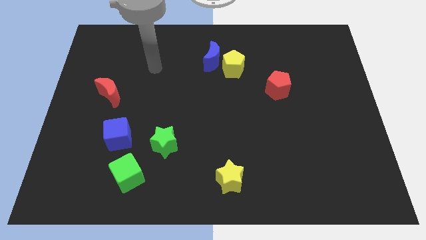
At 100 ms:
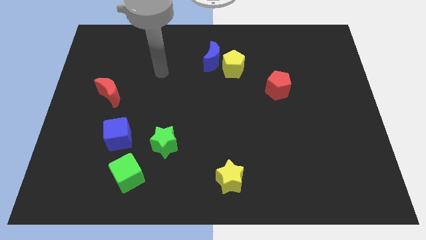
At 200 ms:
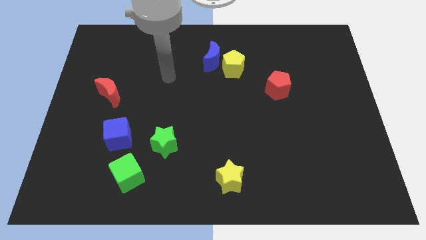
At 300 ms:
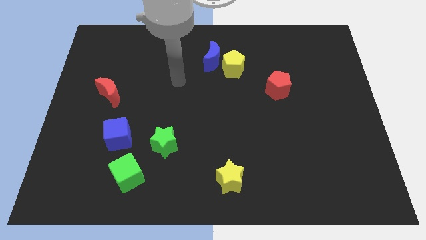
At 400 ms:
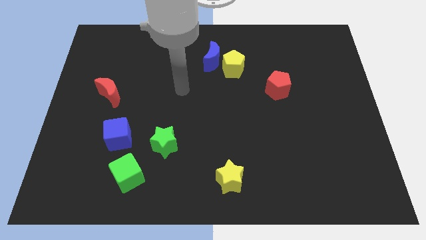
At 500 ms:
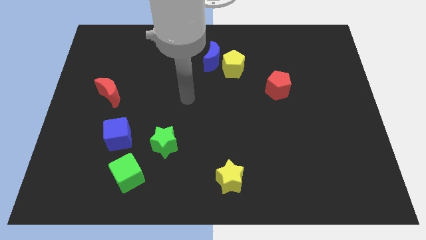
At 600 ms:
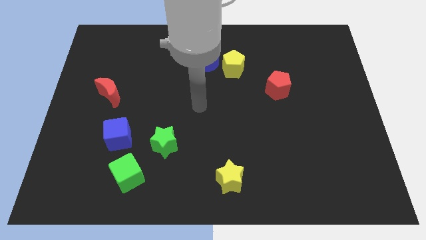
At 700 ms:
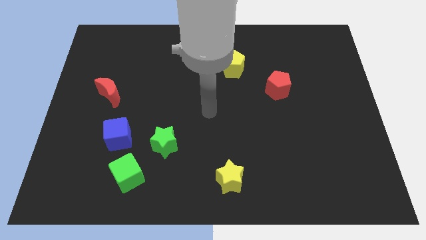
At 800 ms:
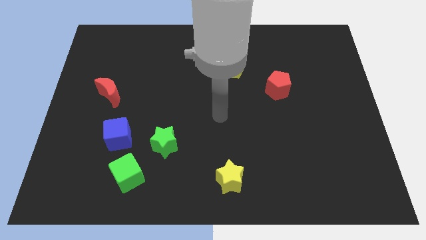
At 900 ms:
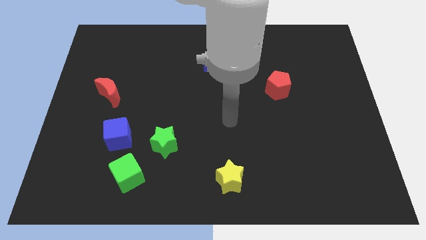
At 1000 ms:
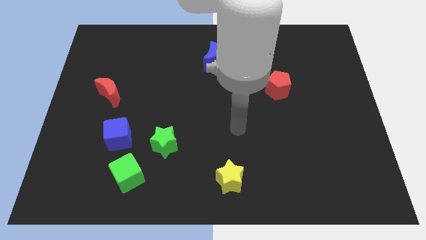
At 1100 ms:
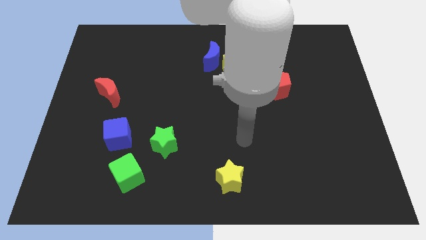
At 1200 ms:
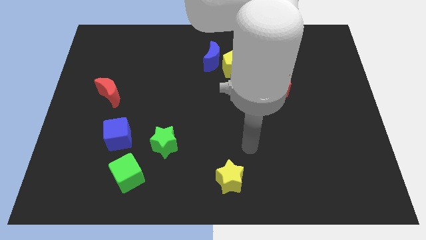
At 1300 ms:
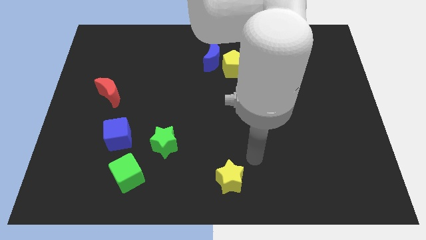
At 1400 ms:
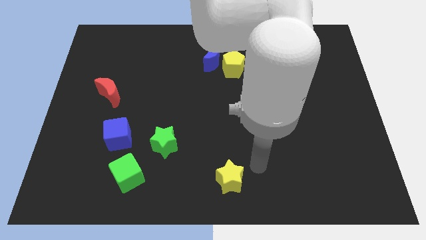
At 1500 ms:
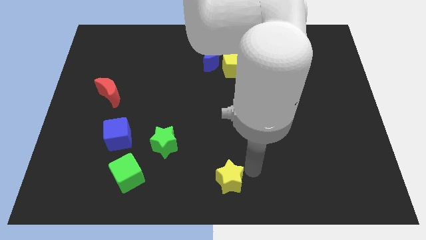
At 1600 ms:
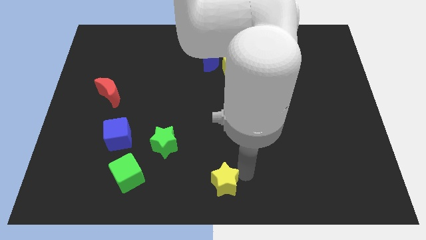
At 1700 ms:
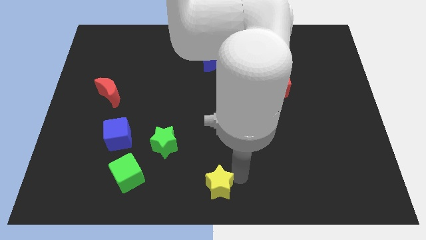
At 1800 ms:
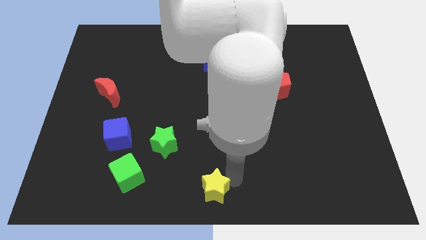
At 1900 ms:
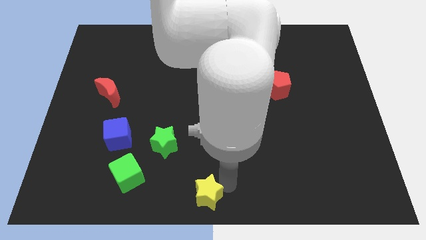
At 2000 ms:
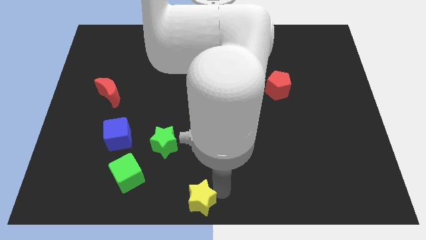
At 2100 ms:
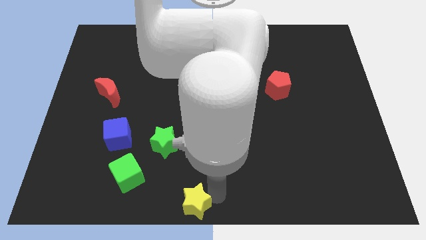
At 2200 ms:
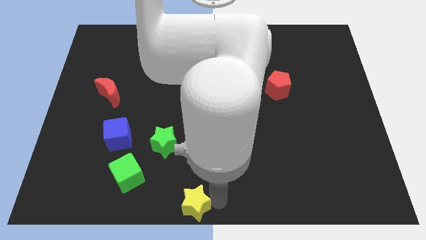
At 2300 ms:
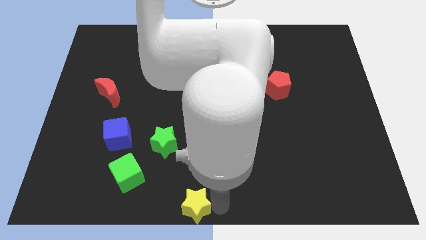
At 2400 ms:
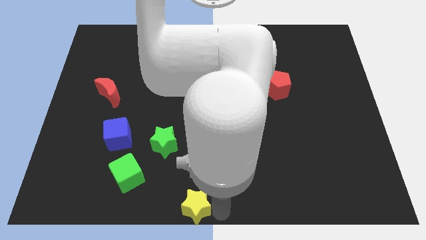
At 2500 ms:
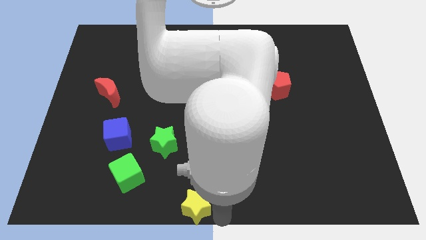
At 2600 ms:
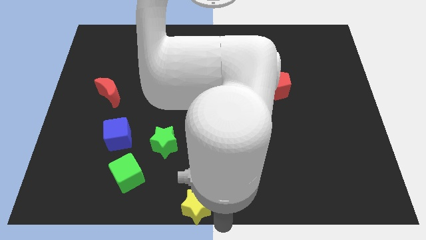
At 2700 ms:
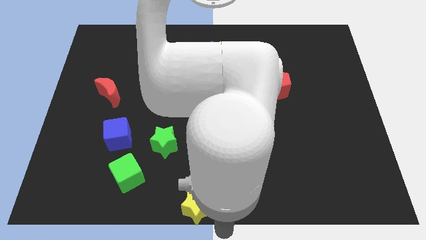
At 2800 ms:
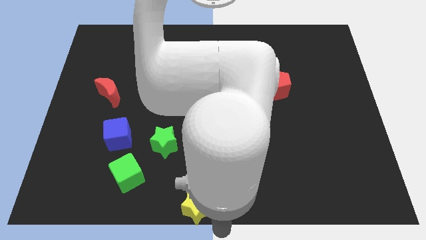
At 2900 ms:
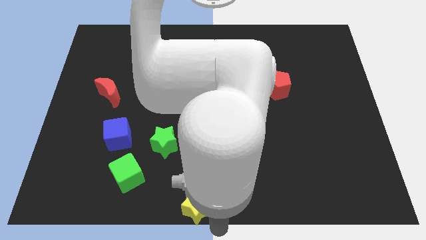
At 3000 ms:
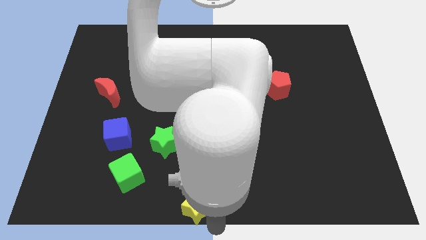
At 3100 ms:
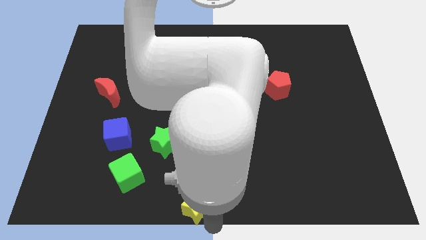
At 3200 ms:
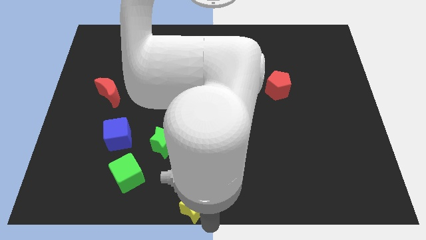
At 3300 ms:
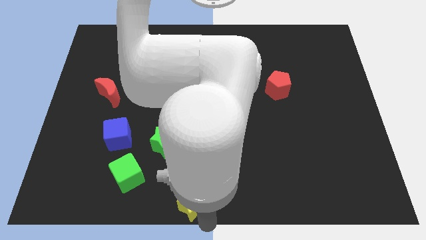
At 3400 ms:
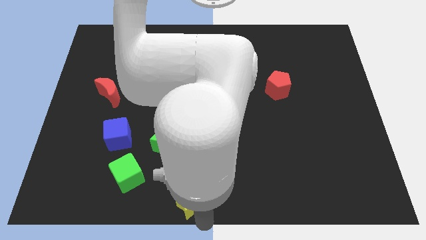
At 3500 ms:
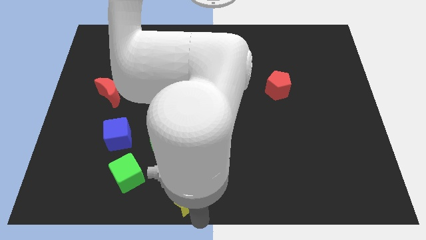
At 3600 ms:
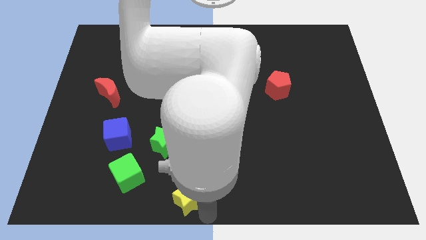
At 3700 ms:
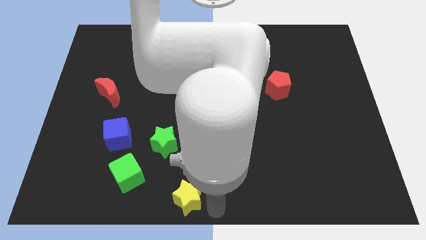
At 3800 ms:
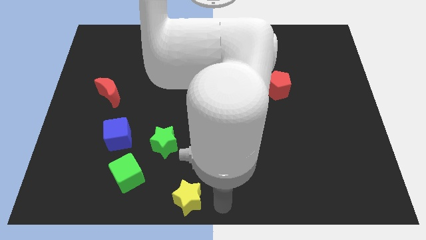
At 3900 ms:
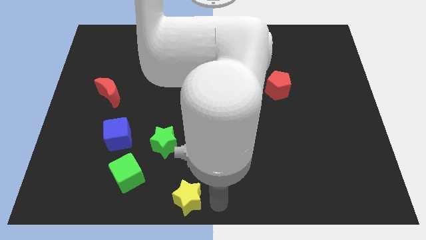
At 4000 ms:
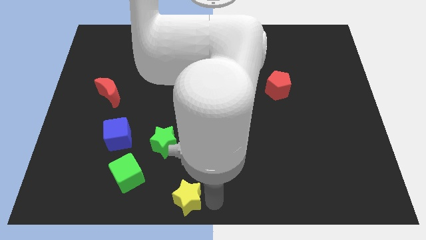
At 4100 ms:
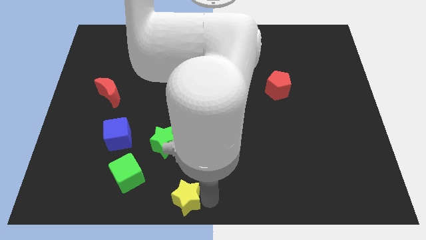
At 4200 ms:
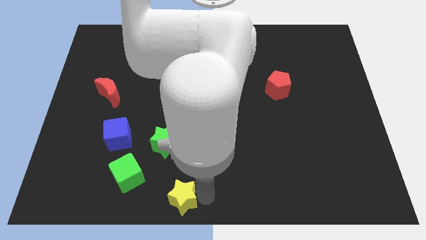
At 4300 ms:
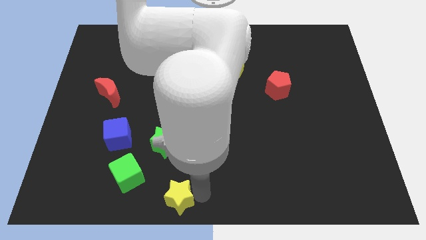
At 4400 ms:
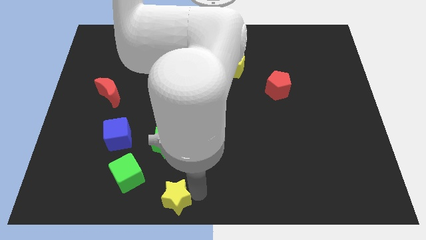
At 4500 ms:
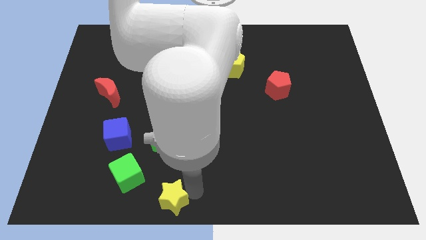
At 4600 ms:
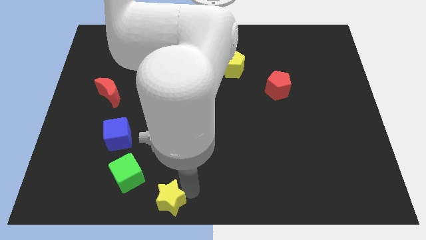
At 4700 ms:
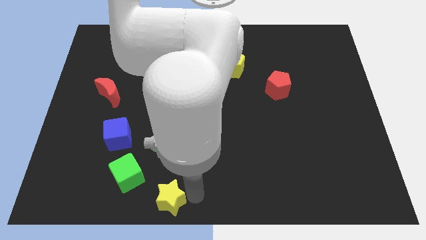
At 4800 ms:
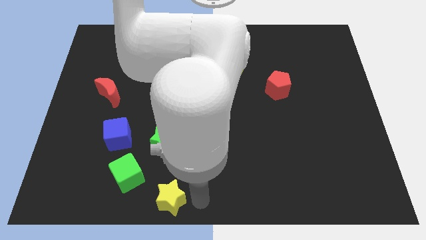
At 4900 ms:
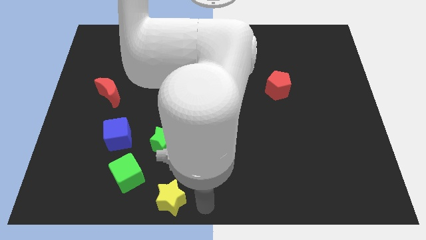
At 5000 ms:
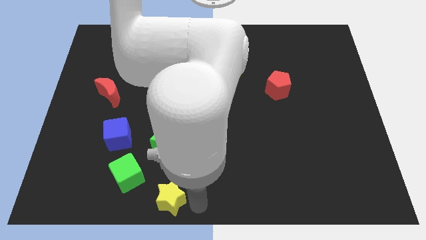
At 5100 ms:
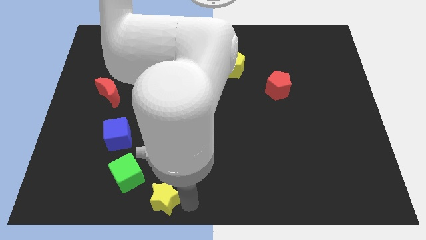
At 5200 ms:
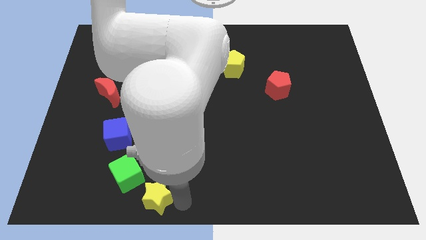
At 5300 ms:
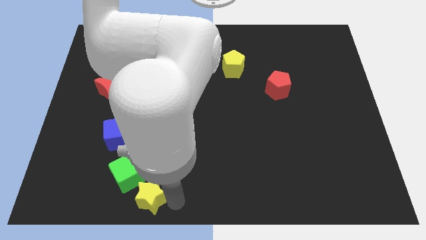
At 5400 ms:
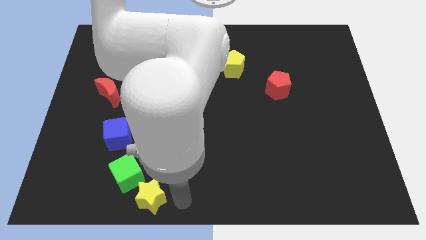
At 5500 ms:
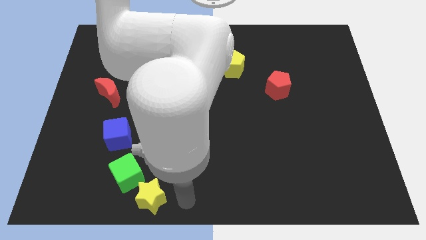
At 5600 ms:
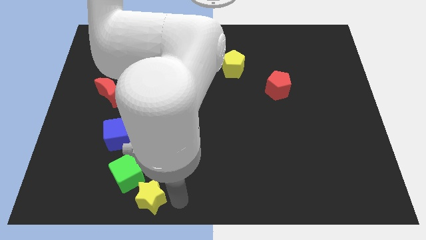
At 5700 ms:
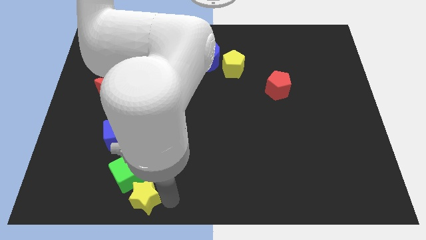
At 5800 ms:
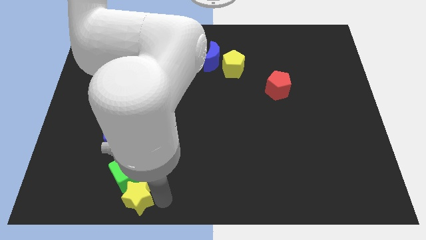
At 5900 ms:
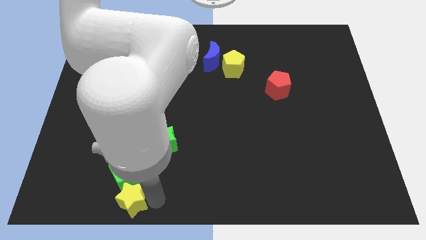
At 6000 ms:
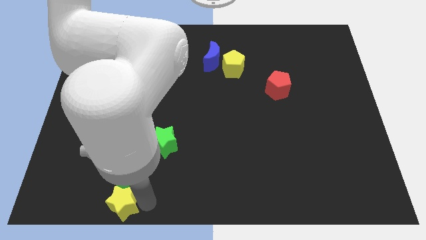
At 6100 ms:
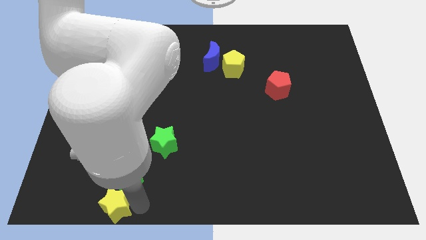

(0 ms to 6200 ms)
push the yellow star left

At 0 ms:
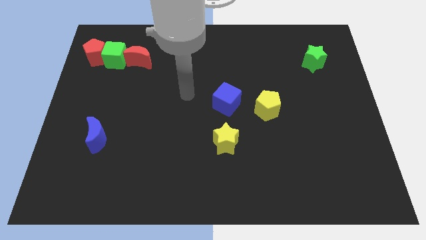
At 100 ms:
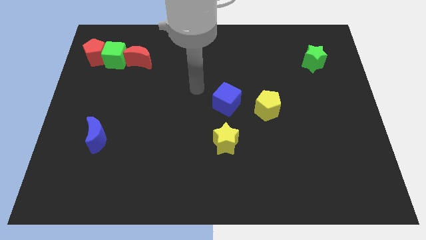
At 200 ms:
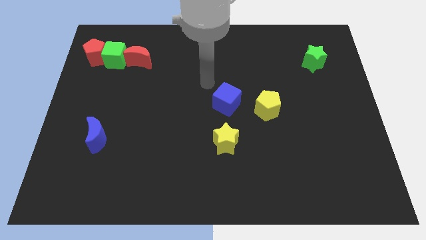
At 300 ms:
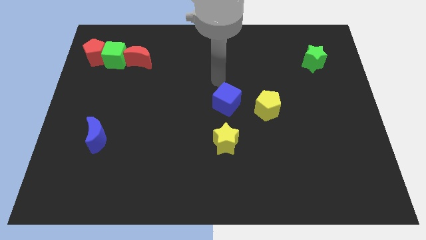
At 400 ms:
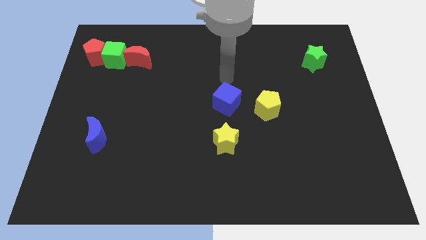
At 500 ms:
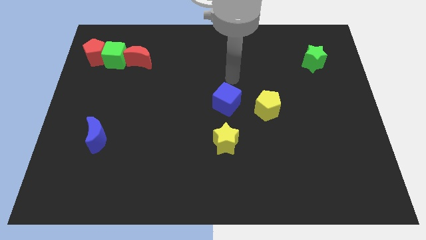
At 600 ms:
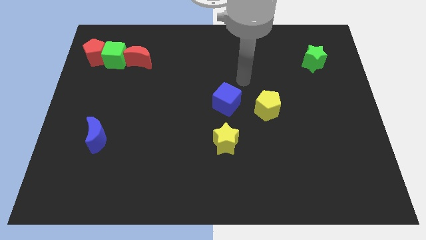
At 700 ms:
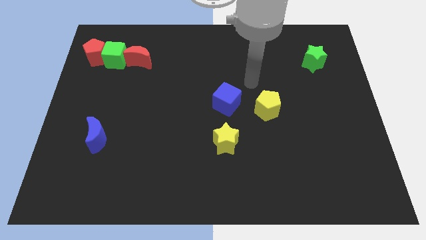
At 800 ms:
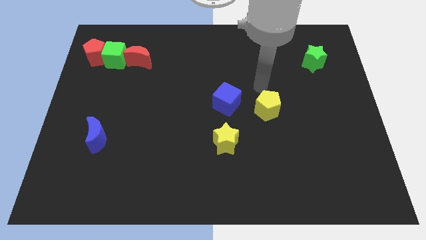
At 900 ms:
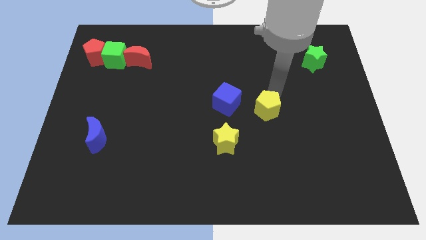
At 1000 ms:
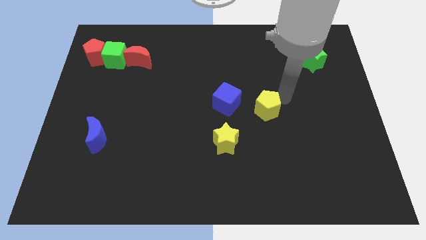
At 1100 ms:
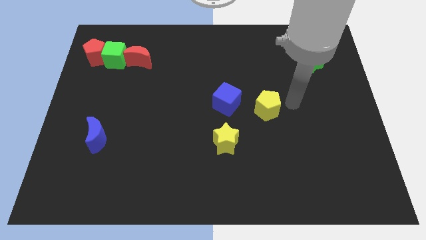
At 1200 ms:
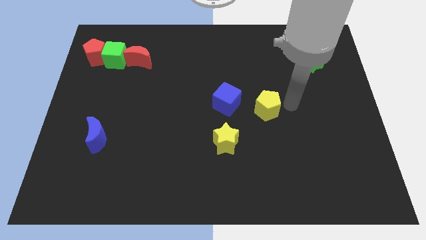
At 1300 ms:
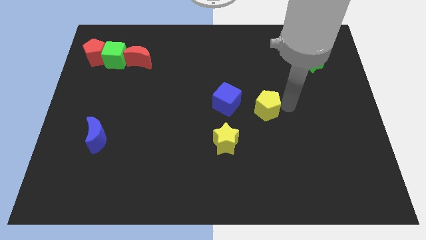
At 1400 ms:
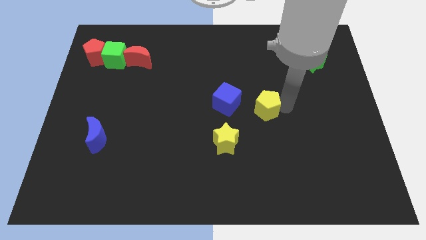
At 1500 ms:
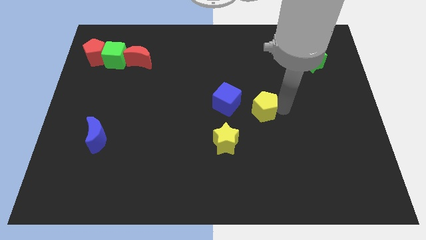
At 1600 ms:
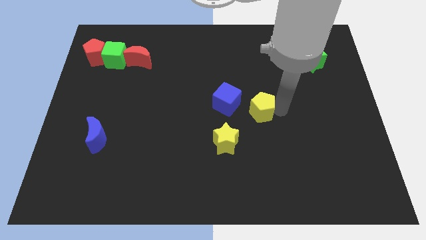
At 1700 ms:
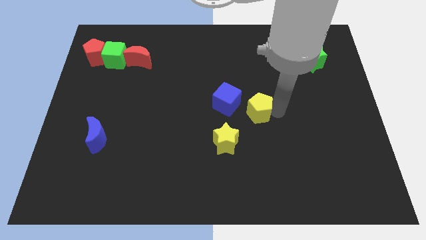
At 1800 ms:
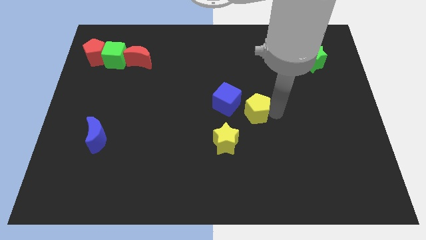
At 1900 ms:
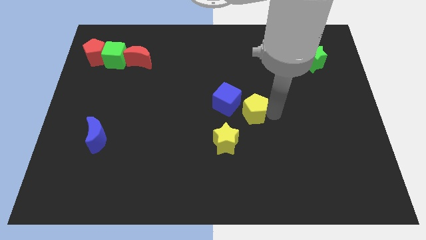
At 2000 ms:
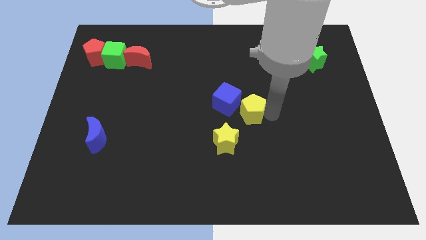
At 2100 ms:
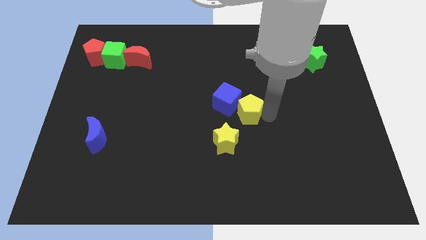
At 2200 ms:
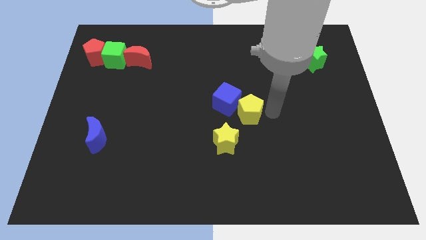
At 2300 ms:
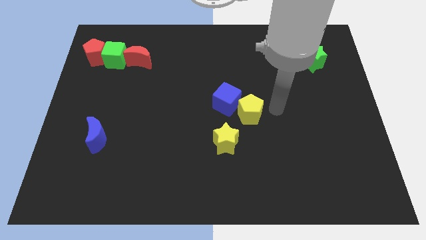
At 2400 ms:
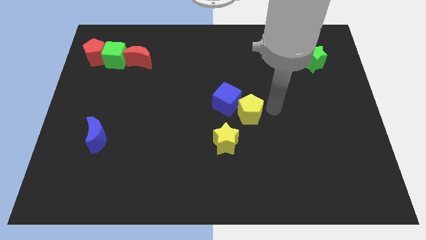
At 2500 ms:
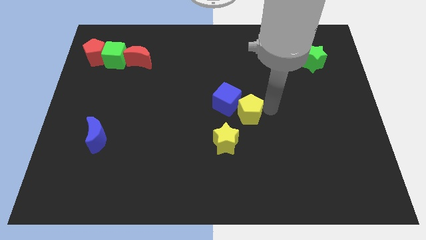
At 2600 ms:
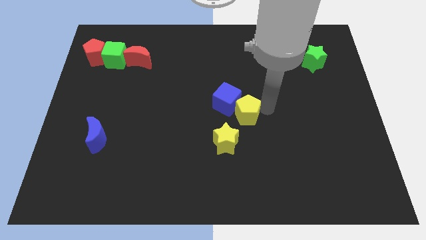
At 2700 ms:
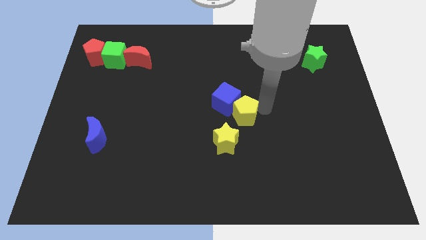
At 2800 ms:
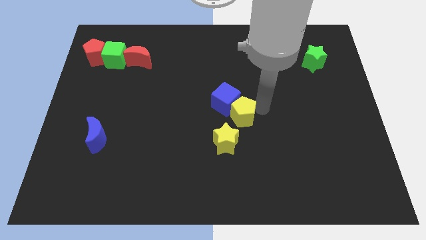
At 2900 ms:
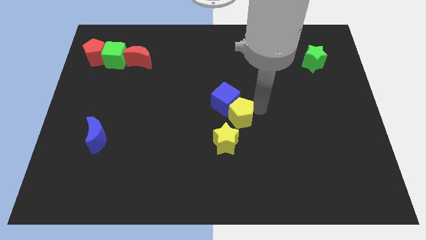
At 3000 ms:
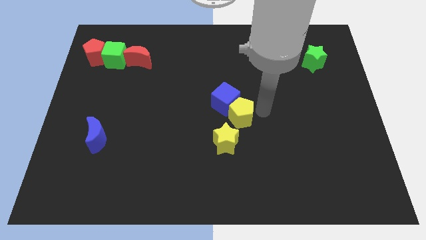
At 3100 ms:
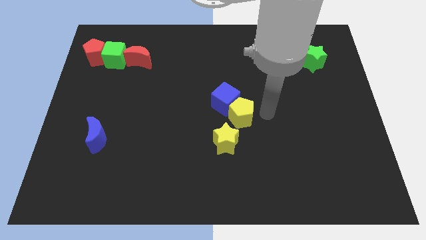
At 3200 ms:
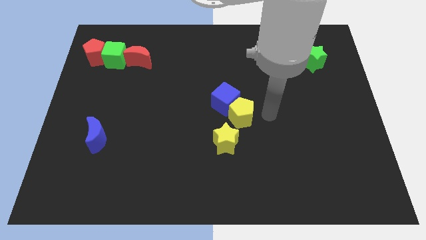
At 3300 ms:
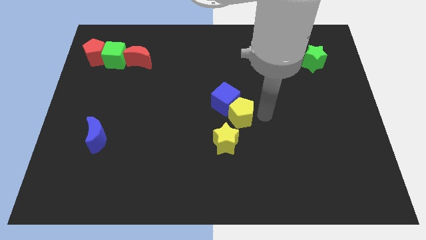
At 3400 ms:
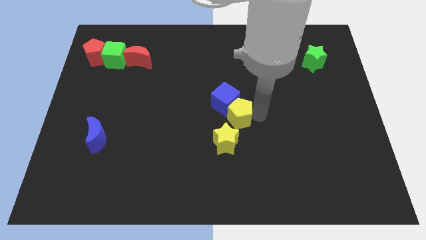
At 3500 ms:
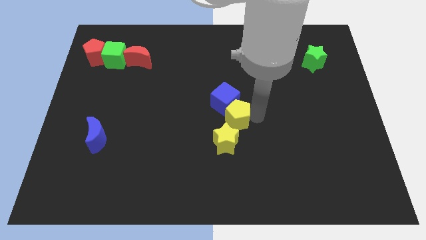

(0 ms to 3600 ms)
move the yellow pentagon to the left somewhat
